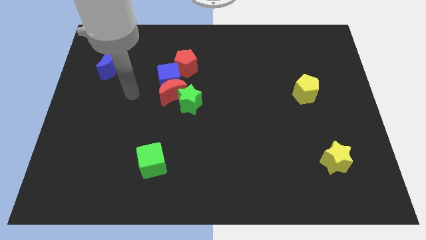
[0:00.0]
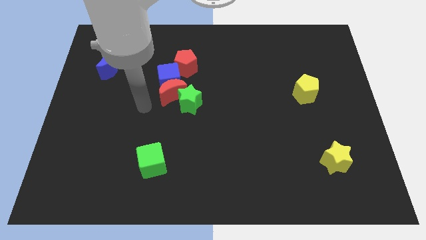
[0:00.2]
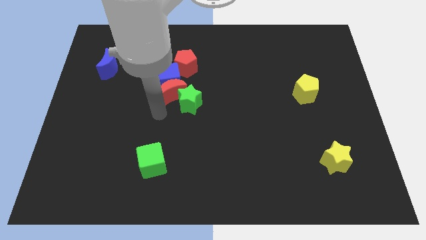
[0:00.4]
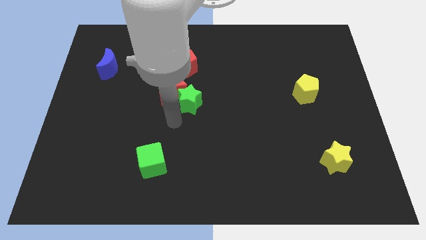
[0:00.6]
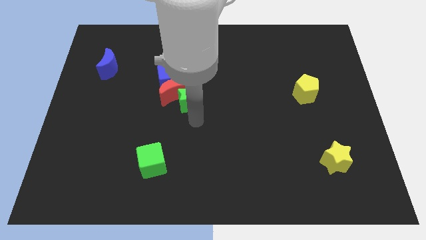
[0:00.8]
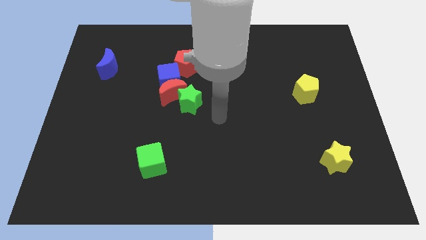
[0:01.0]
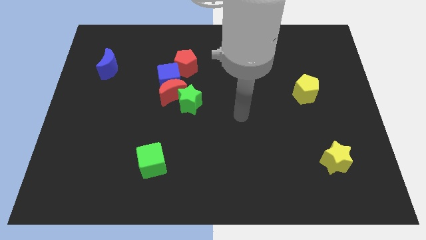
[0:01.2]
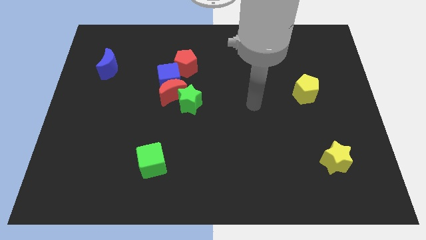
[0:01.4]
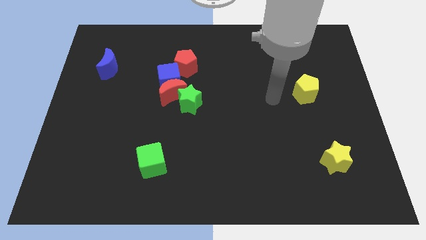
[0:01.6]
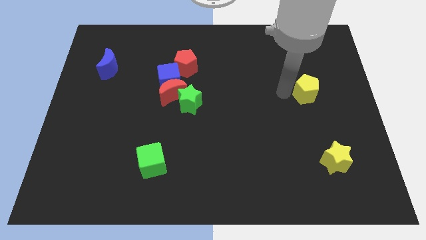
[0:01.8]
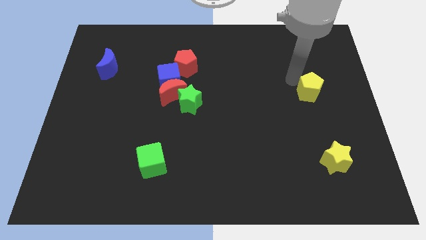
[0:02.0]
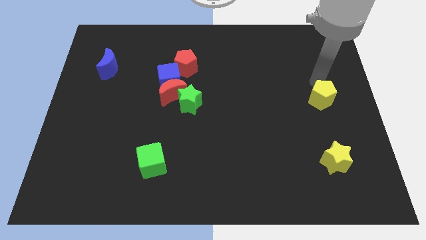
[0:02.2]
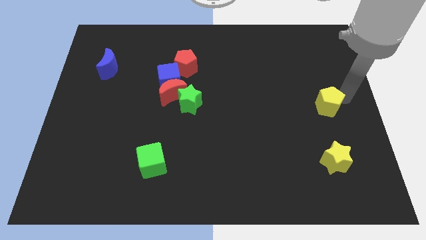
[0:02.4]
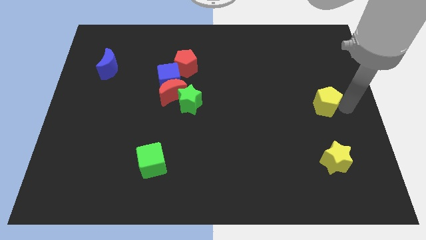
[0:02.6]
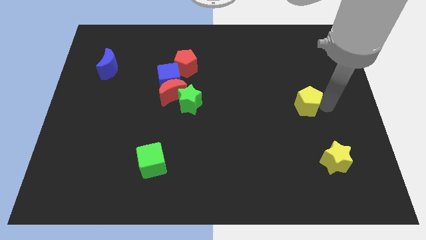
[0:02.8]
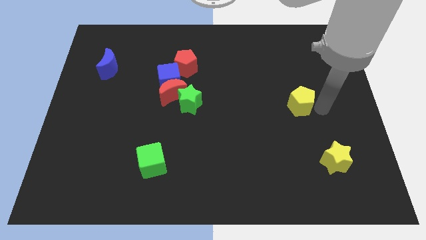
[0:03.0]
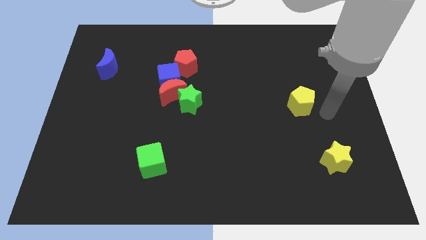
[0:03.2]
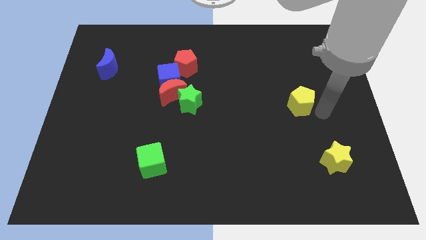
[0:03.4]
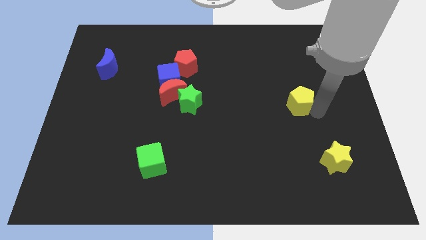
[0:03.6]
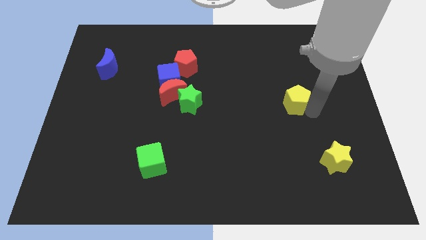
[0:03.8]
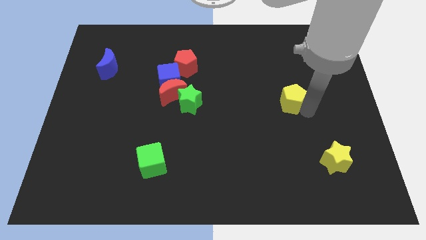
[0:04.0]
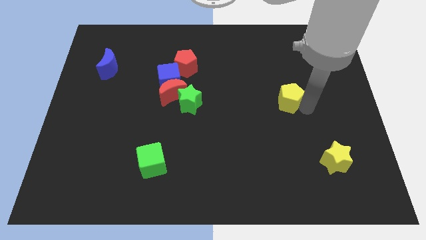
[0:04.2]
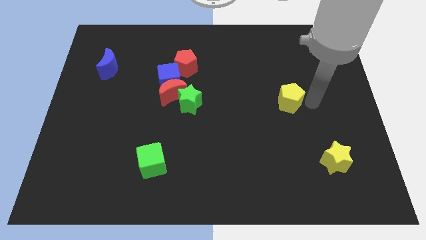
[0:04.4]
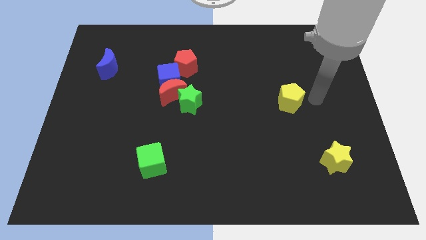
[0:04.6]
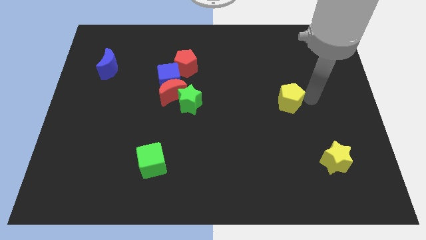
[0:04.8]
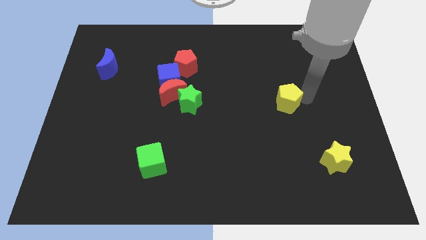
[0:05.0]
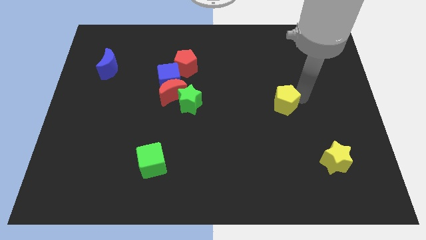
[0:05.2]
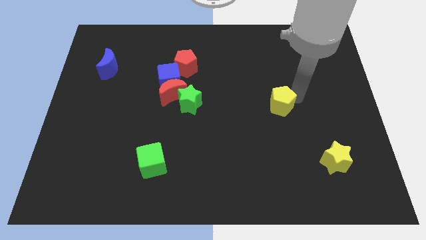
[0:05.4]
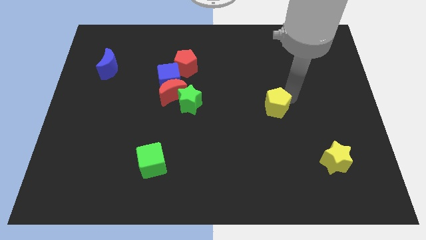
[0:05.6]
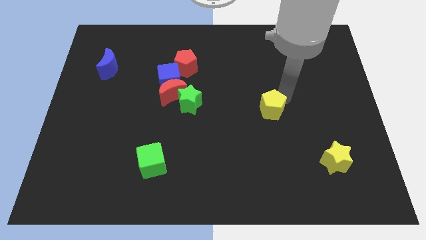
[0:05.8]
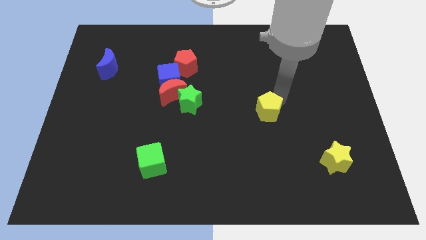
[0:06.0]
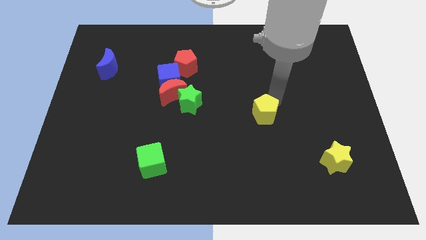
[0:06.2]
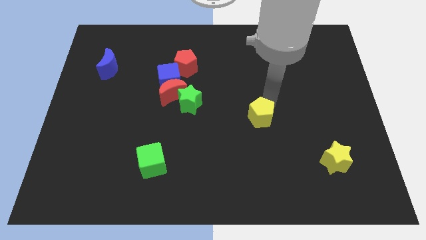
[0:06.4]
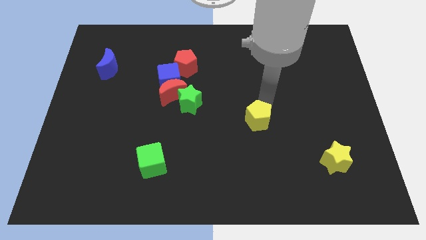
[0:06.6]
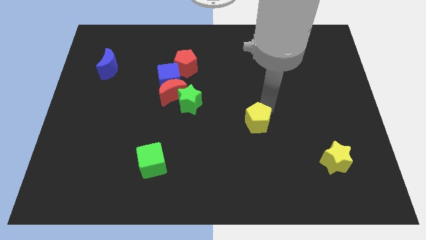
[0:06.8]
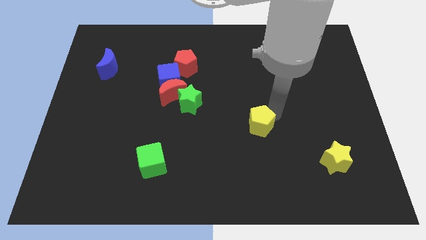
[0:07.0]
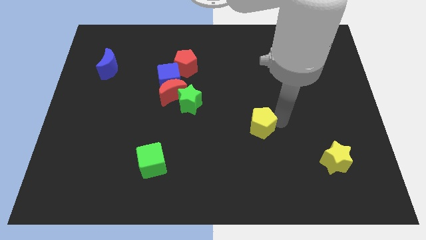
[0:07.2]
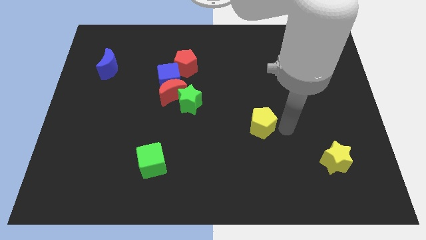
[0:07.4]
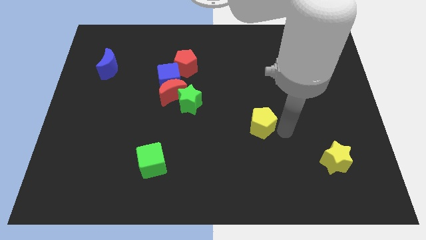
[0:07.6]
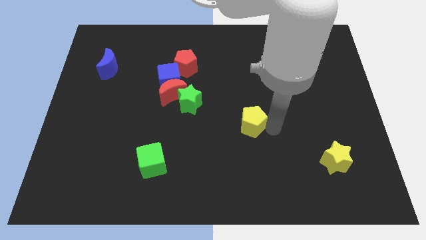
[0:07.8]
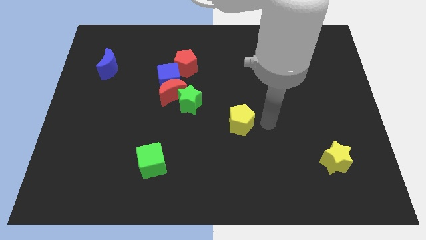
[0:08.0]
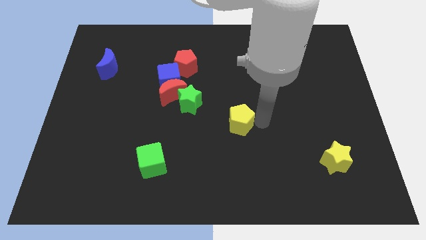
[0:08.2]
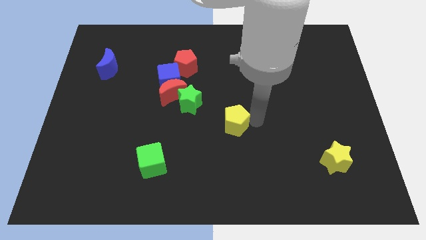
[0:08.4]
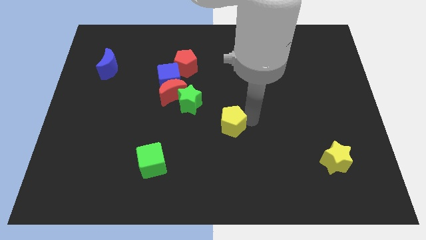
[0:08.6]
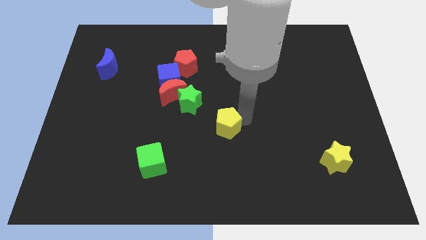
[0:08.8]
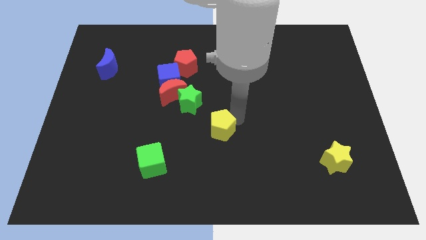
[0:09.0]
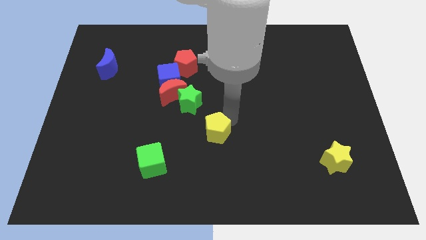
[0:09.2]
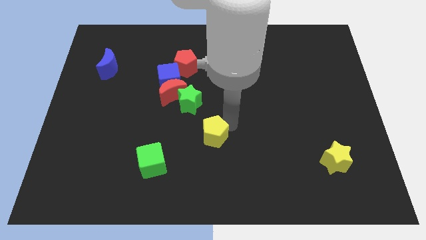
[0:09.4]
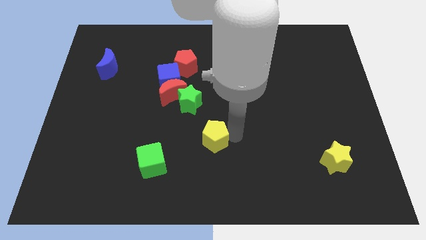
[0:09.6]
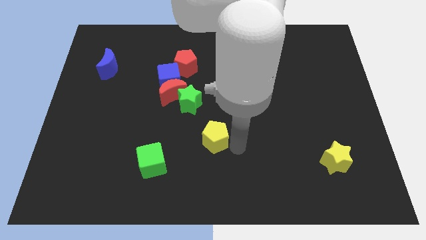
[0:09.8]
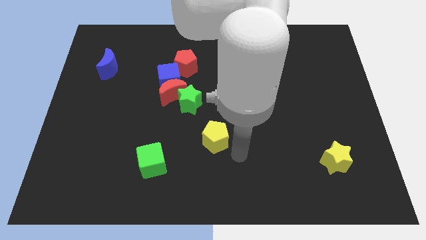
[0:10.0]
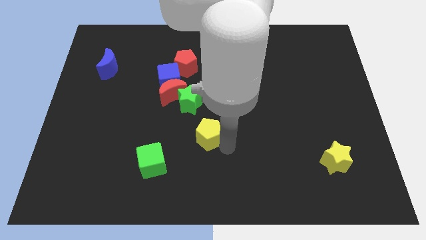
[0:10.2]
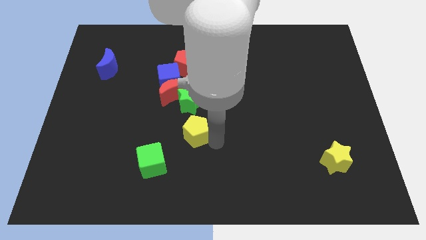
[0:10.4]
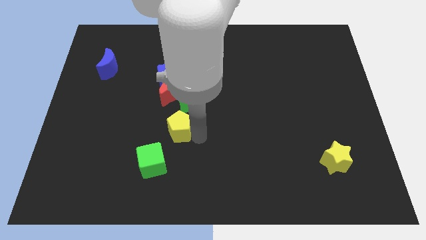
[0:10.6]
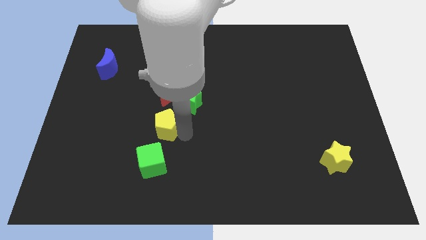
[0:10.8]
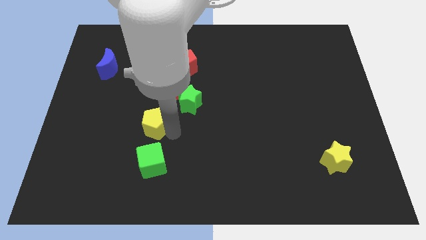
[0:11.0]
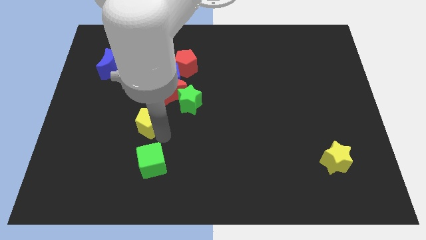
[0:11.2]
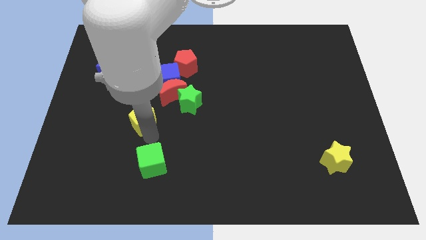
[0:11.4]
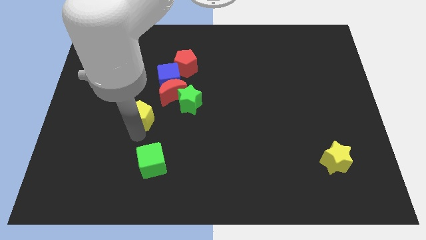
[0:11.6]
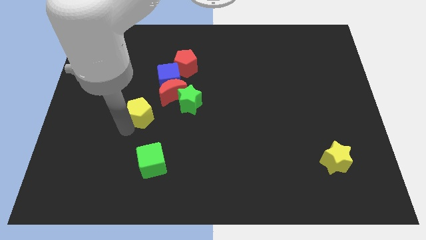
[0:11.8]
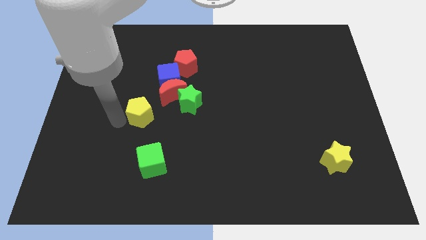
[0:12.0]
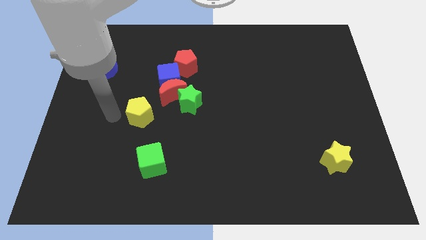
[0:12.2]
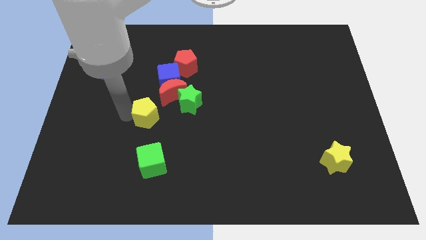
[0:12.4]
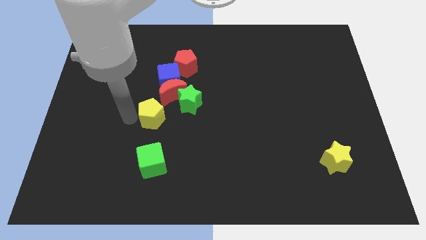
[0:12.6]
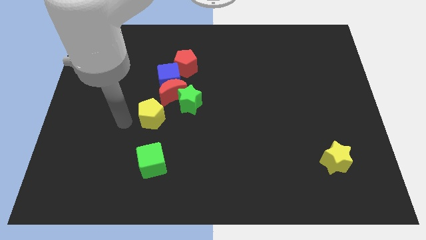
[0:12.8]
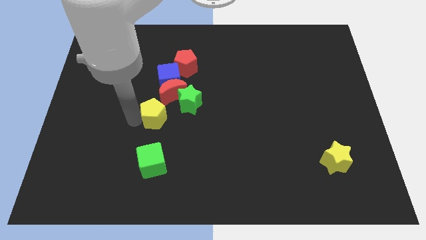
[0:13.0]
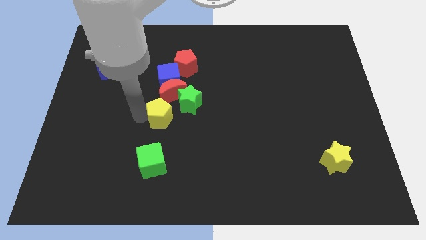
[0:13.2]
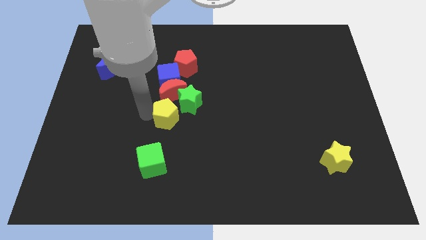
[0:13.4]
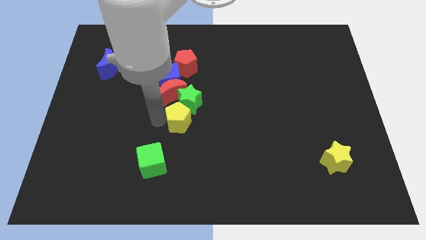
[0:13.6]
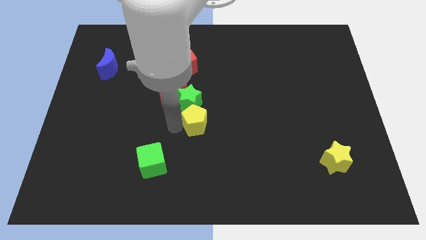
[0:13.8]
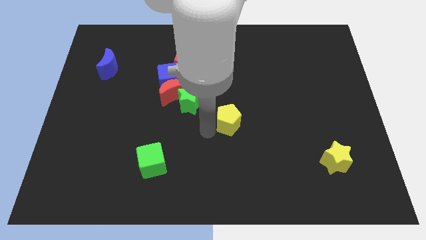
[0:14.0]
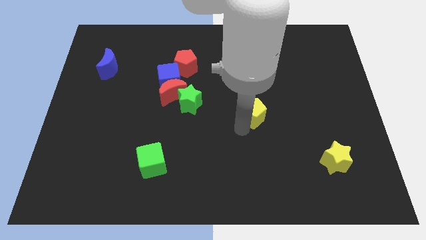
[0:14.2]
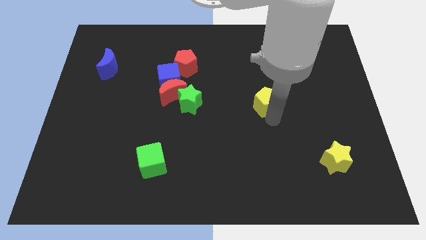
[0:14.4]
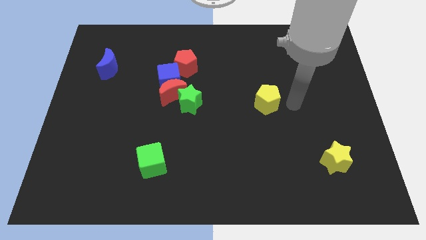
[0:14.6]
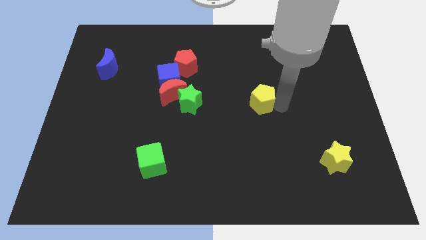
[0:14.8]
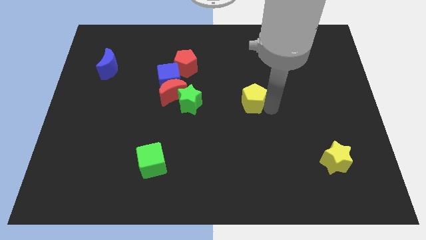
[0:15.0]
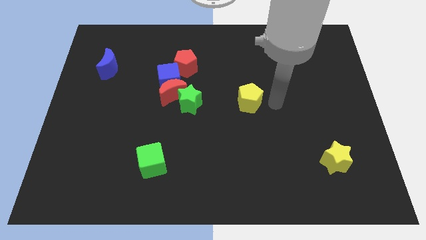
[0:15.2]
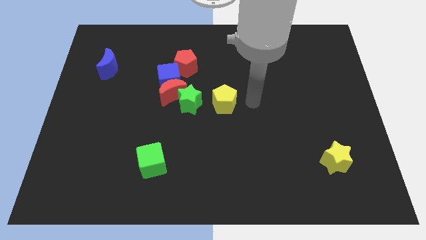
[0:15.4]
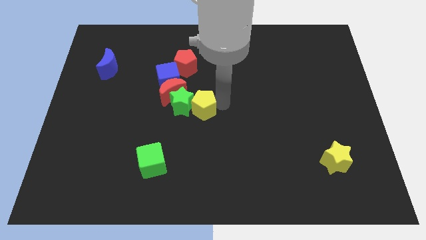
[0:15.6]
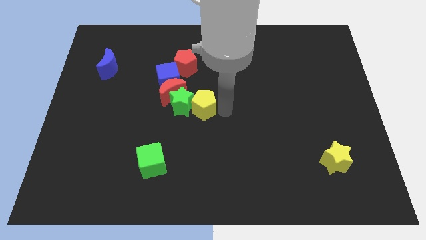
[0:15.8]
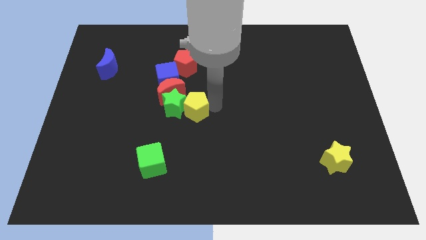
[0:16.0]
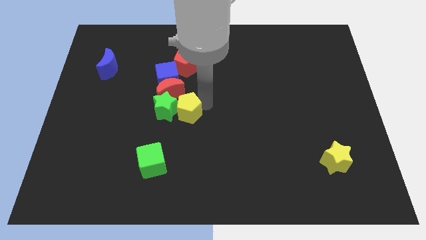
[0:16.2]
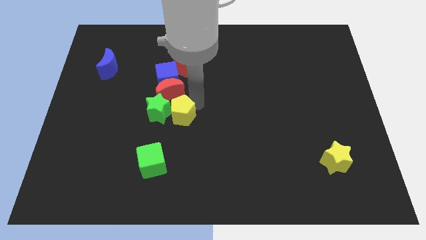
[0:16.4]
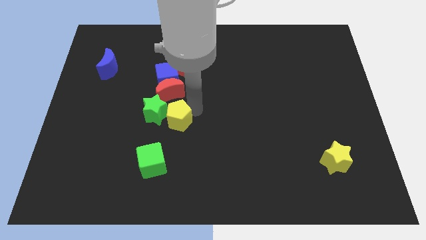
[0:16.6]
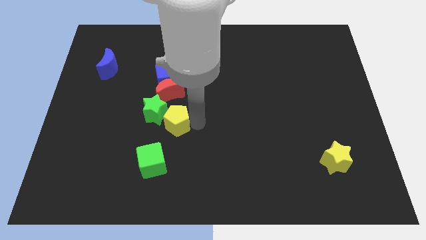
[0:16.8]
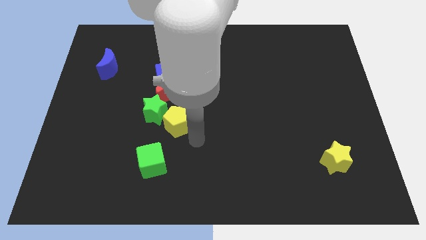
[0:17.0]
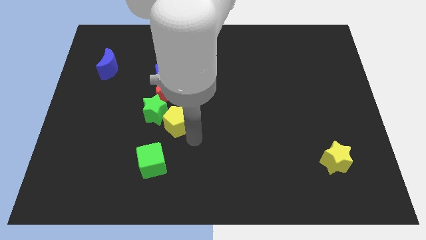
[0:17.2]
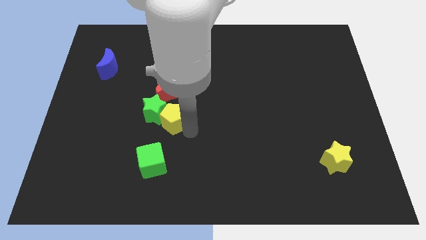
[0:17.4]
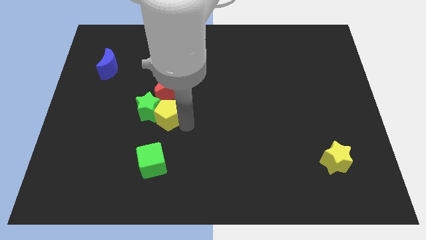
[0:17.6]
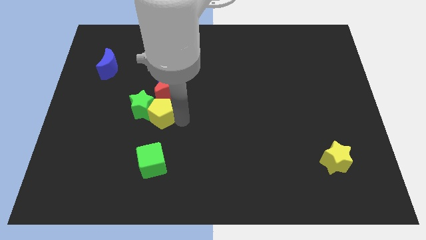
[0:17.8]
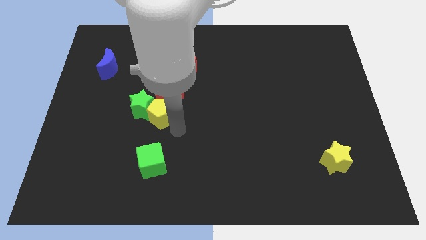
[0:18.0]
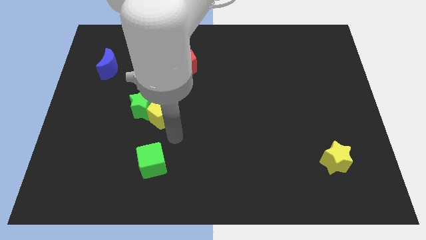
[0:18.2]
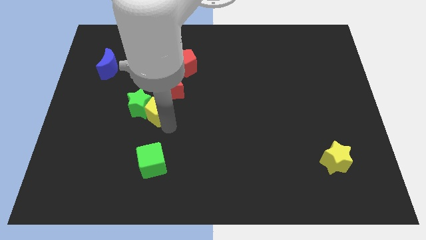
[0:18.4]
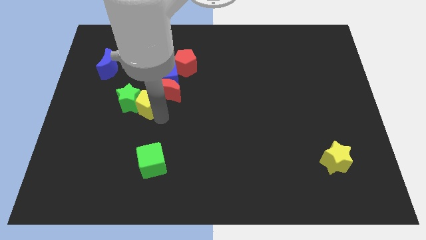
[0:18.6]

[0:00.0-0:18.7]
move the yellow pentagon to the left of the red moon
